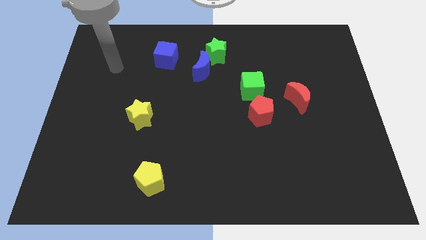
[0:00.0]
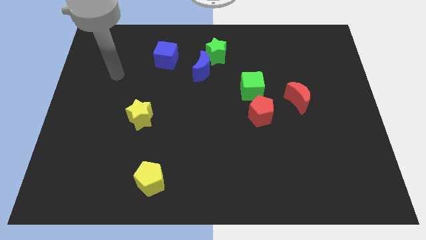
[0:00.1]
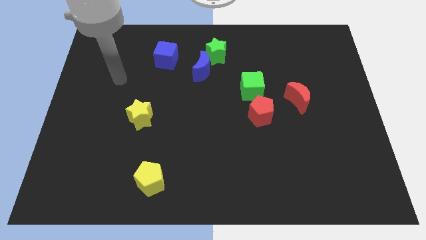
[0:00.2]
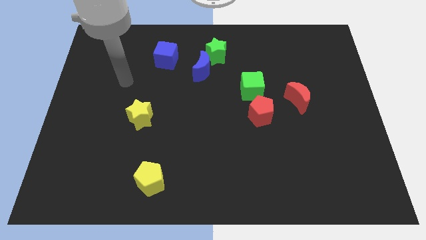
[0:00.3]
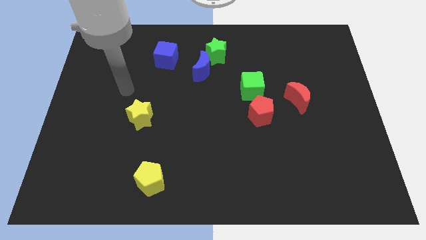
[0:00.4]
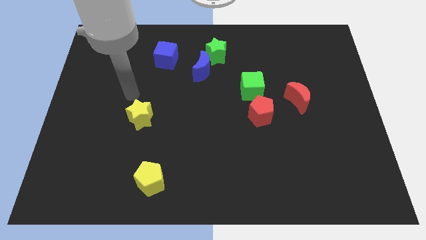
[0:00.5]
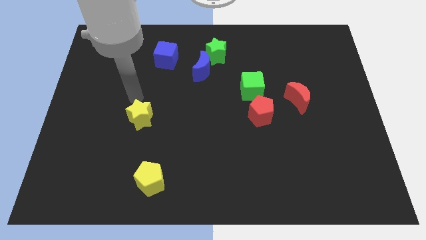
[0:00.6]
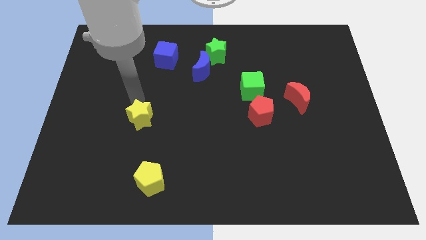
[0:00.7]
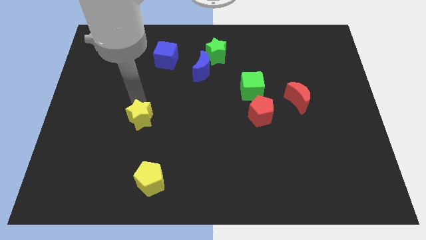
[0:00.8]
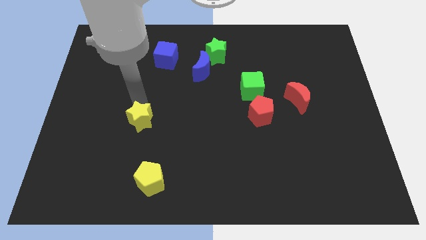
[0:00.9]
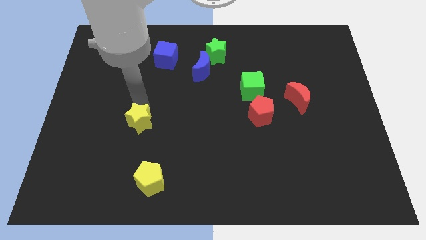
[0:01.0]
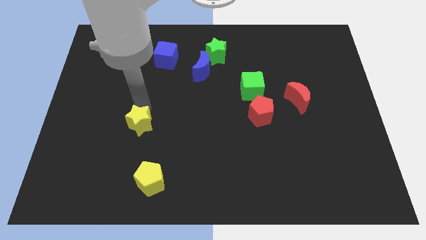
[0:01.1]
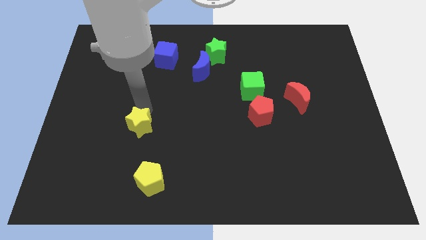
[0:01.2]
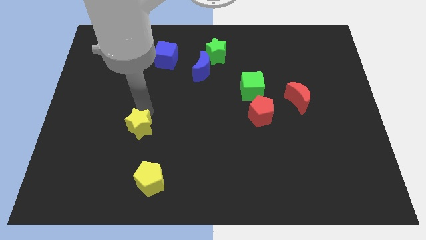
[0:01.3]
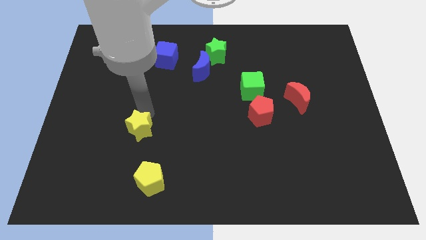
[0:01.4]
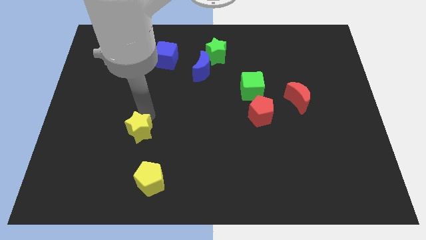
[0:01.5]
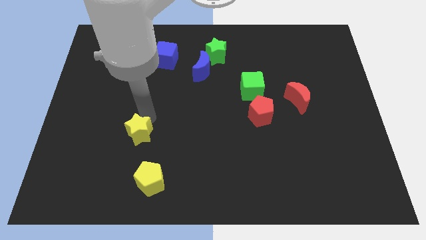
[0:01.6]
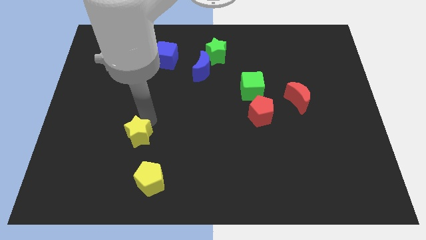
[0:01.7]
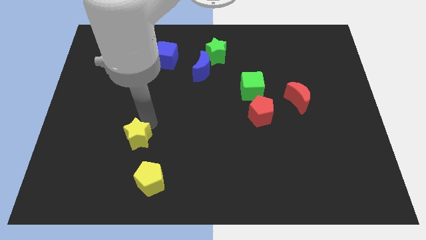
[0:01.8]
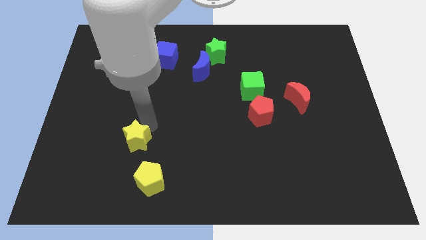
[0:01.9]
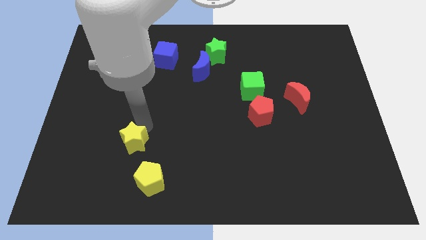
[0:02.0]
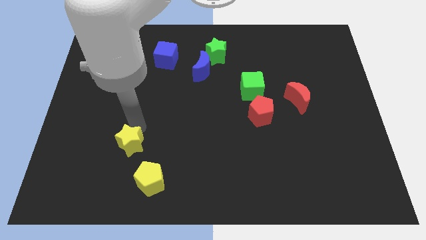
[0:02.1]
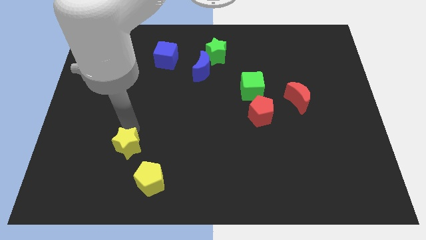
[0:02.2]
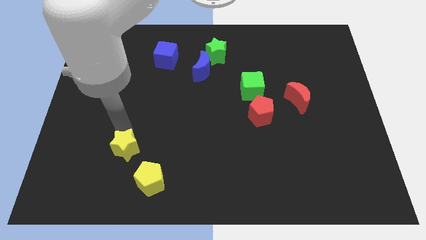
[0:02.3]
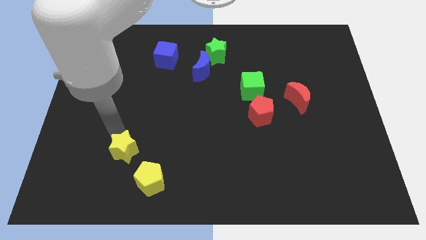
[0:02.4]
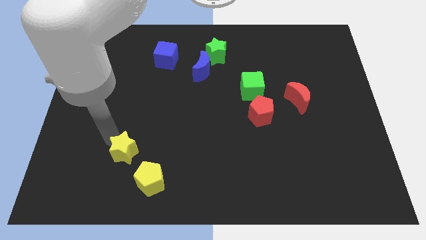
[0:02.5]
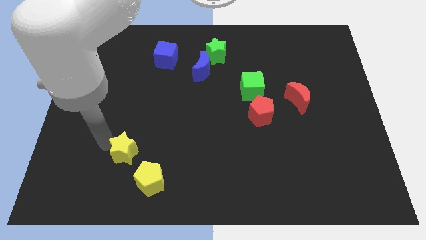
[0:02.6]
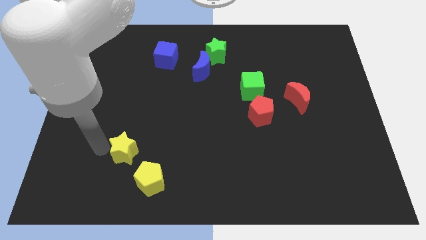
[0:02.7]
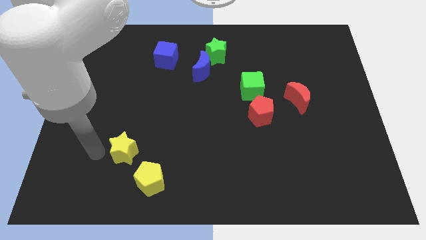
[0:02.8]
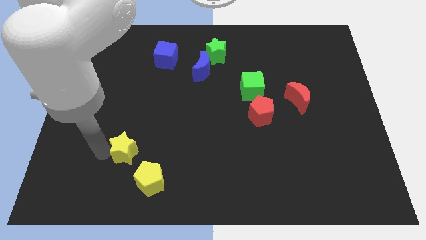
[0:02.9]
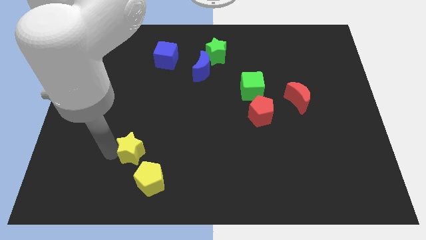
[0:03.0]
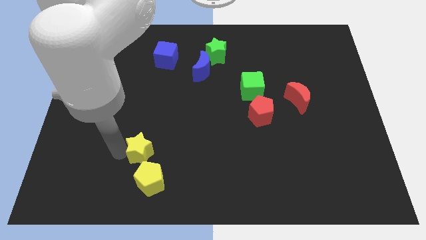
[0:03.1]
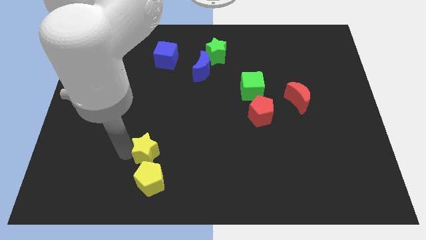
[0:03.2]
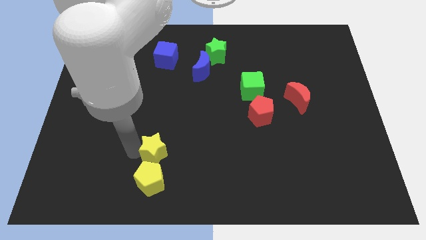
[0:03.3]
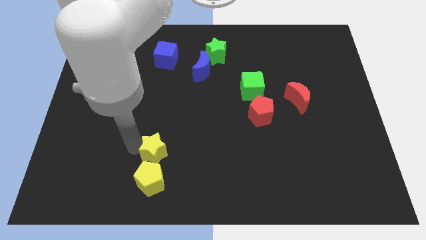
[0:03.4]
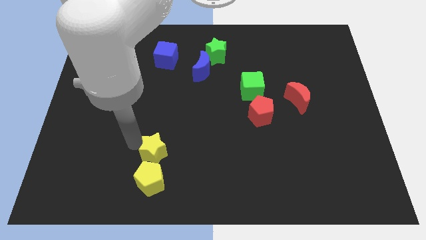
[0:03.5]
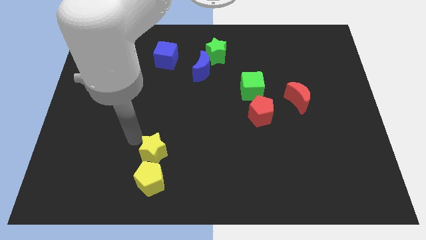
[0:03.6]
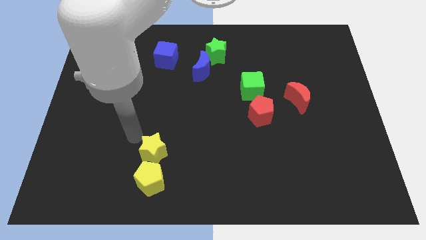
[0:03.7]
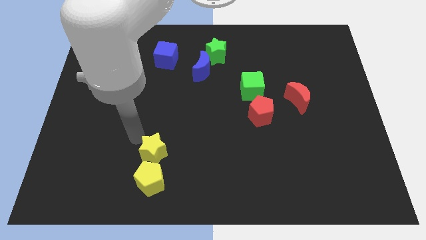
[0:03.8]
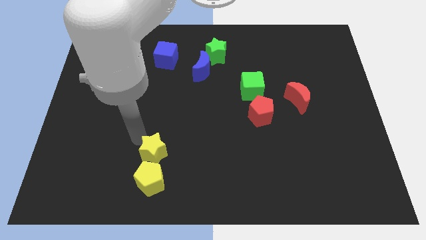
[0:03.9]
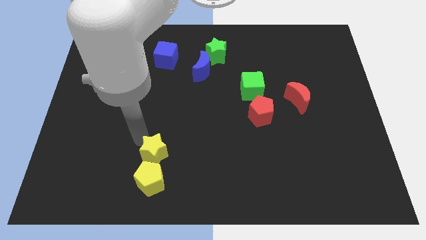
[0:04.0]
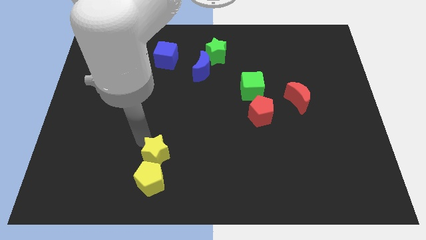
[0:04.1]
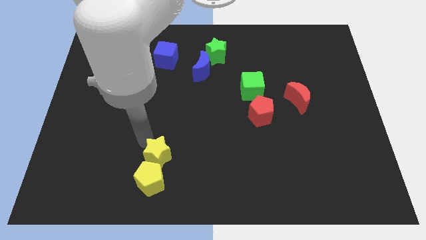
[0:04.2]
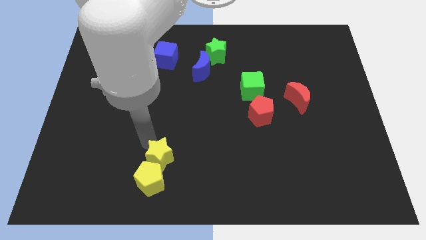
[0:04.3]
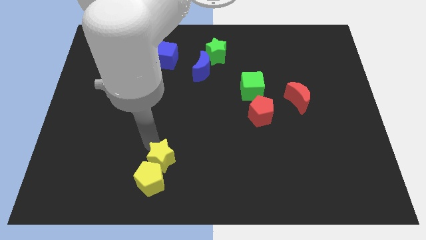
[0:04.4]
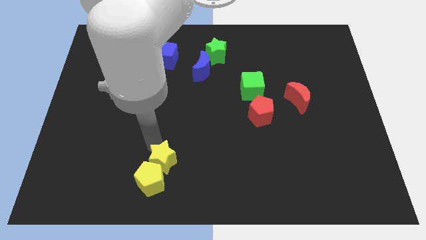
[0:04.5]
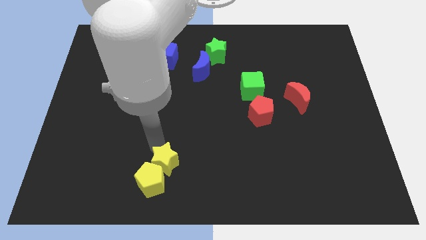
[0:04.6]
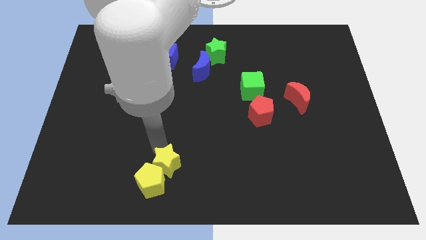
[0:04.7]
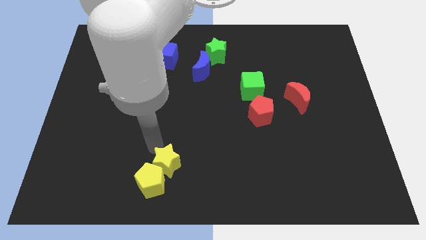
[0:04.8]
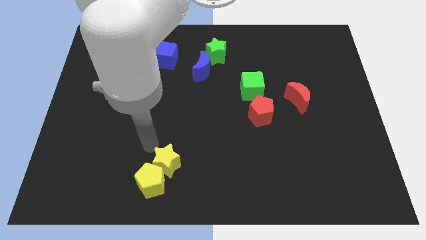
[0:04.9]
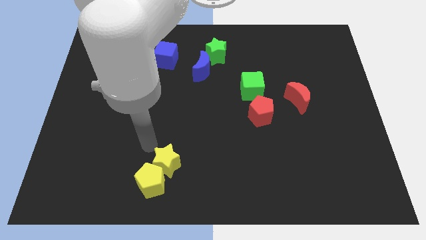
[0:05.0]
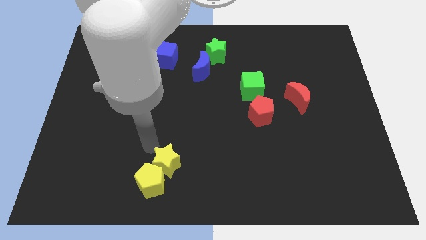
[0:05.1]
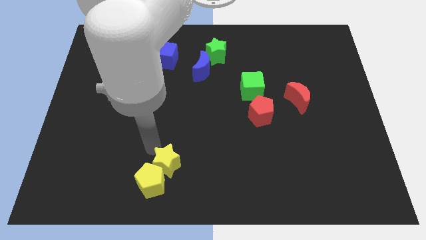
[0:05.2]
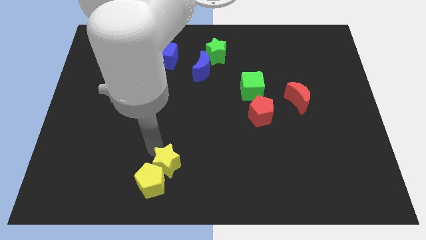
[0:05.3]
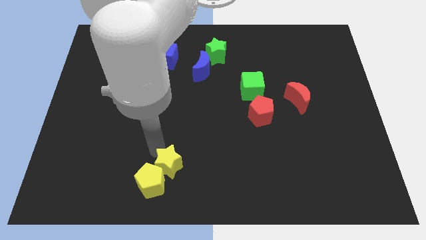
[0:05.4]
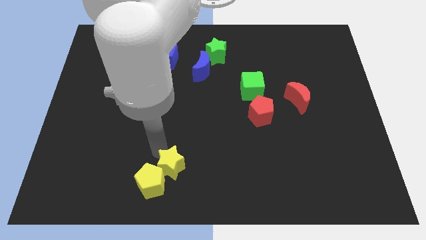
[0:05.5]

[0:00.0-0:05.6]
slide the yellow star to the bottom side

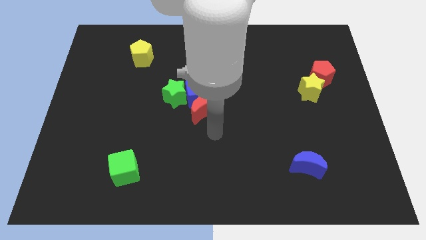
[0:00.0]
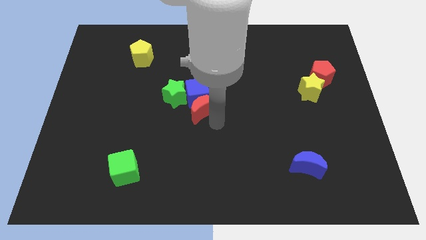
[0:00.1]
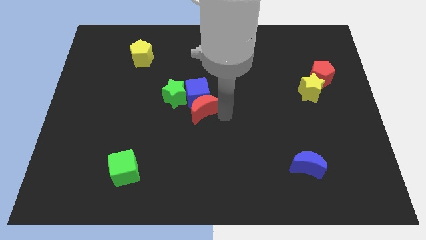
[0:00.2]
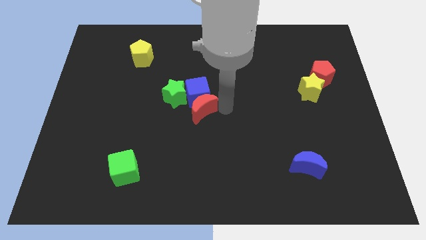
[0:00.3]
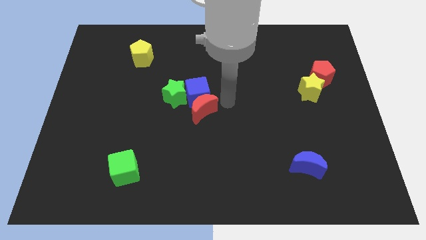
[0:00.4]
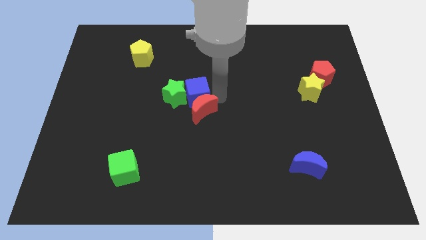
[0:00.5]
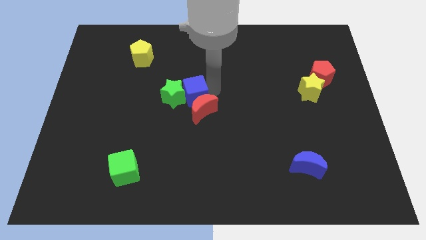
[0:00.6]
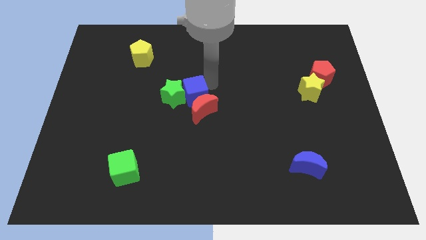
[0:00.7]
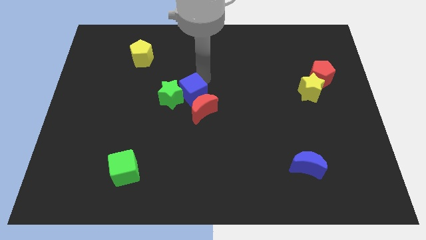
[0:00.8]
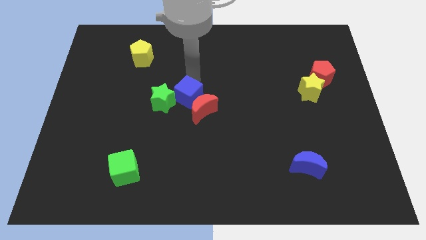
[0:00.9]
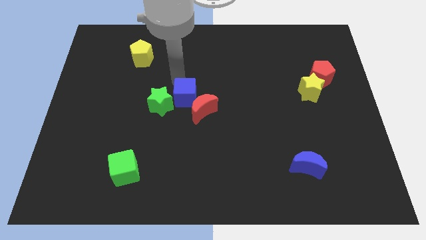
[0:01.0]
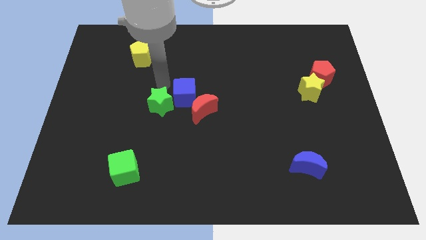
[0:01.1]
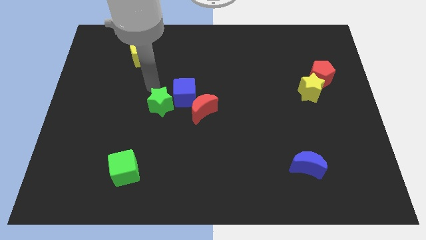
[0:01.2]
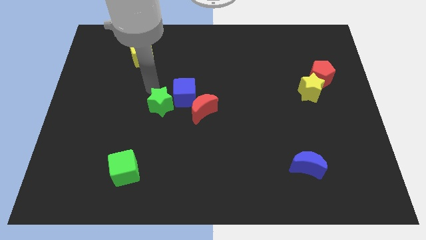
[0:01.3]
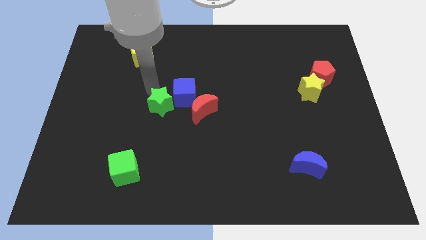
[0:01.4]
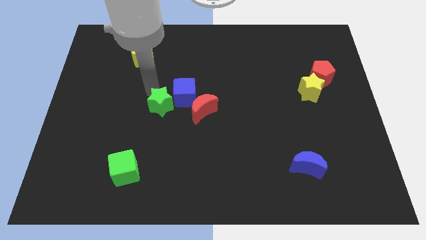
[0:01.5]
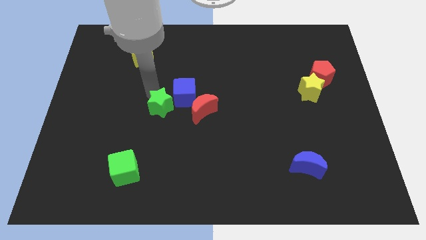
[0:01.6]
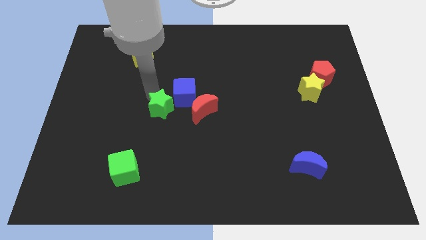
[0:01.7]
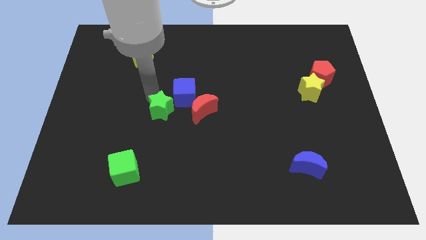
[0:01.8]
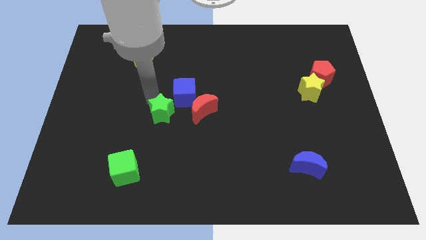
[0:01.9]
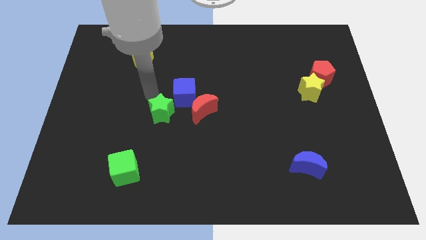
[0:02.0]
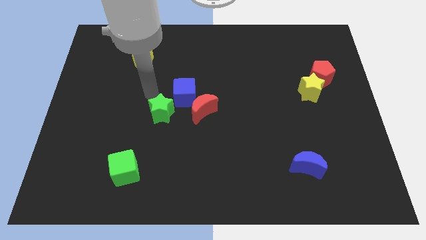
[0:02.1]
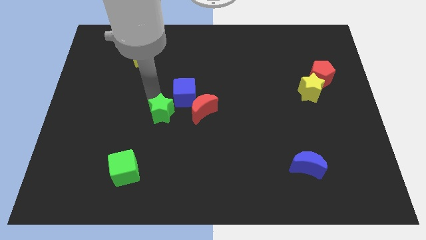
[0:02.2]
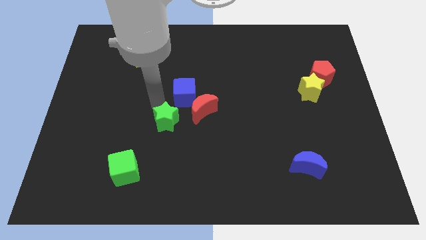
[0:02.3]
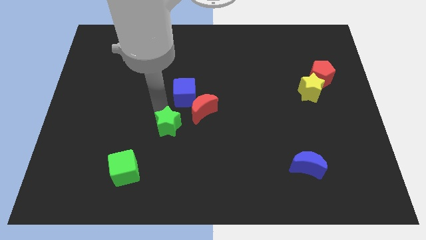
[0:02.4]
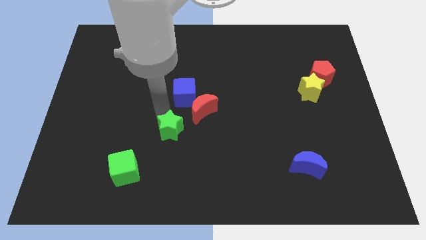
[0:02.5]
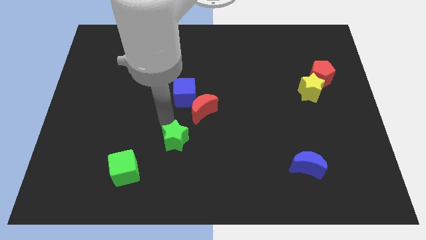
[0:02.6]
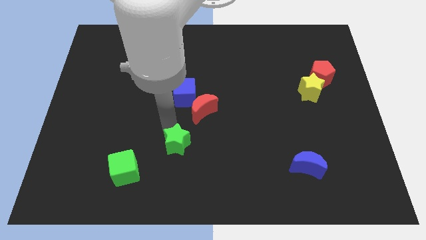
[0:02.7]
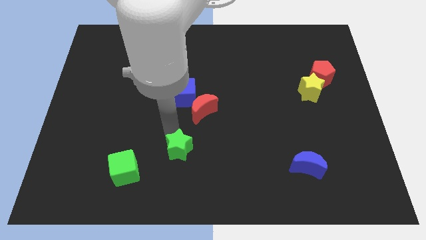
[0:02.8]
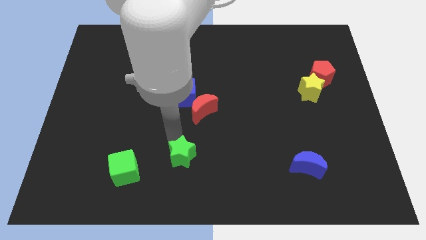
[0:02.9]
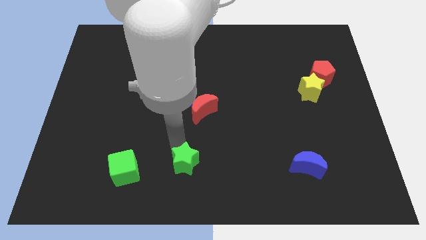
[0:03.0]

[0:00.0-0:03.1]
push the green star to the bottom
